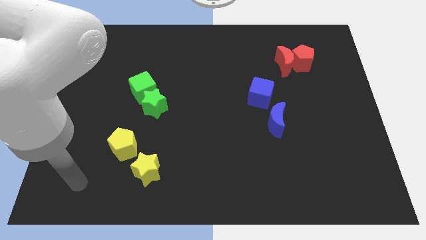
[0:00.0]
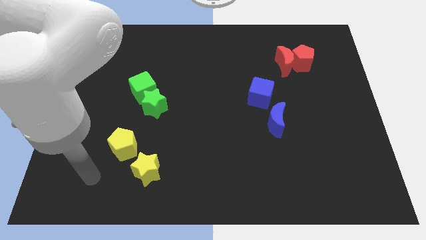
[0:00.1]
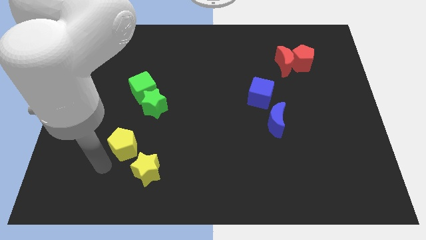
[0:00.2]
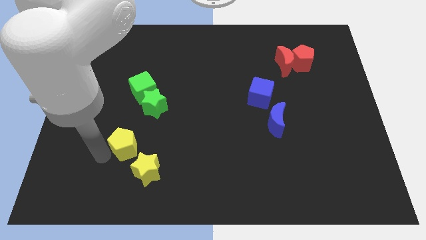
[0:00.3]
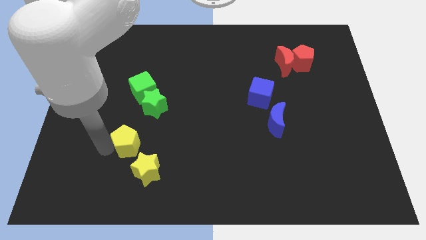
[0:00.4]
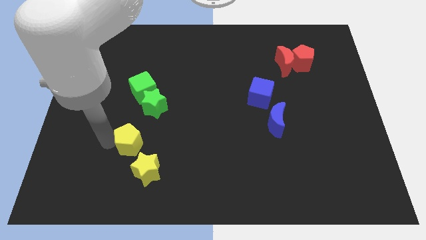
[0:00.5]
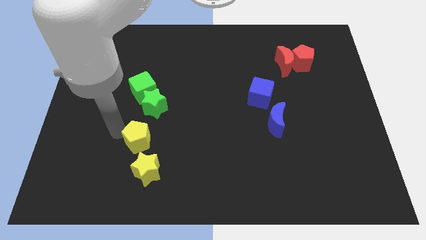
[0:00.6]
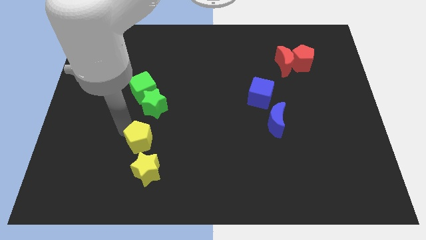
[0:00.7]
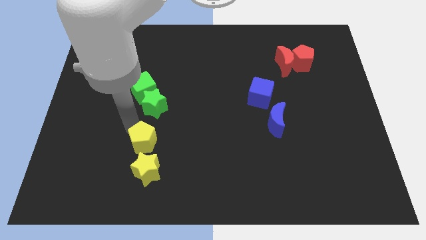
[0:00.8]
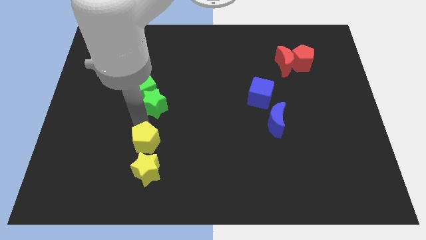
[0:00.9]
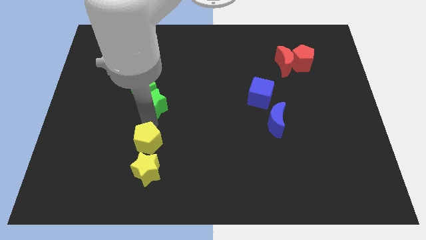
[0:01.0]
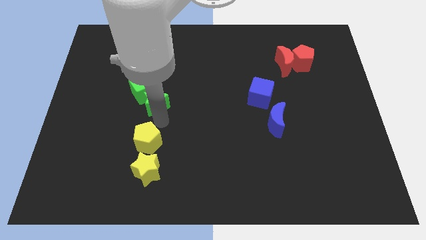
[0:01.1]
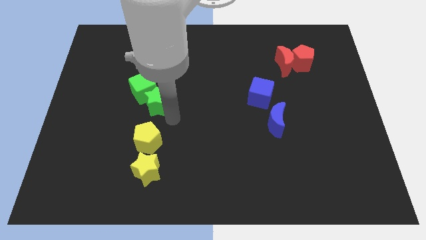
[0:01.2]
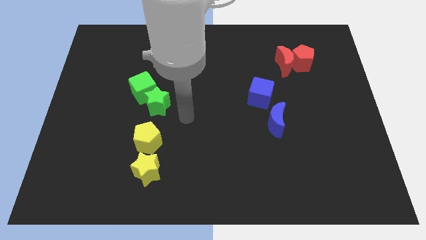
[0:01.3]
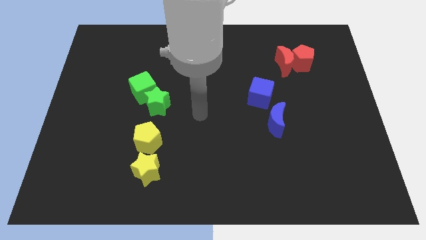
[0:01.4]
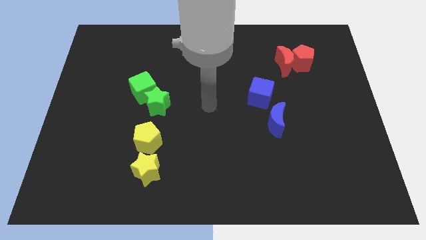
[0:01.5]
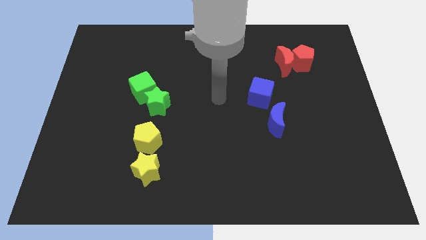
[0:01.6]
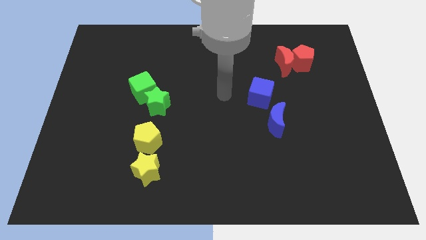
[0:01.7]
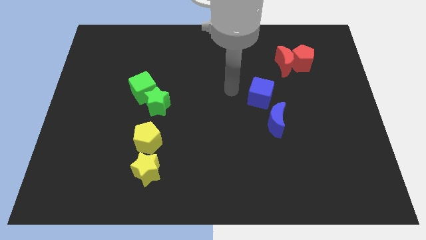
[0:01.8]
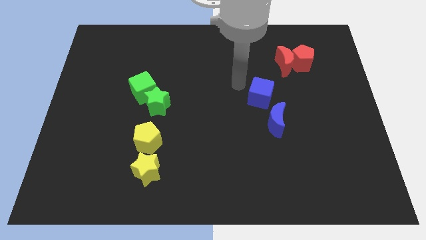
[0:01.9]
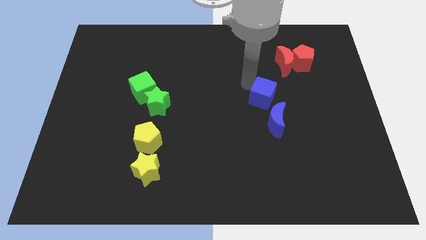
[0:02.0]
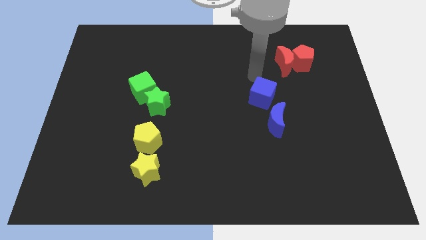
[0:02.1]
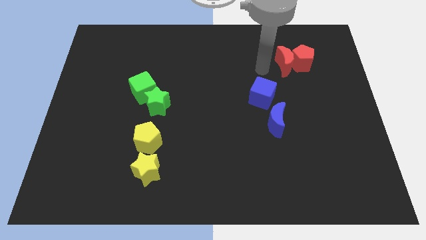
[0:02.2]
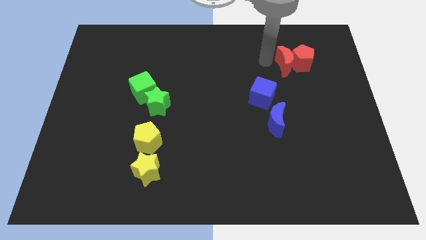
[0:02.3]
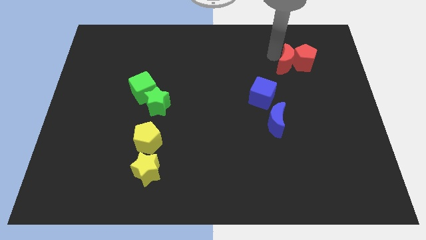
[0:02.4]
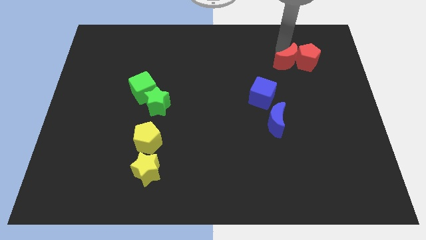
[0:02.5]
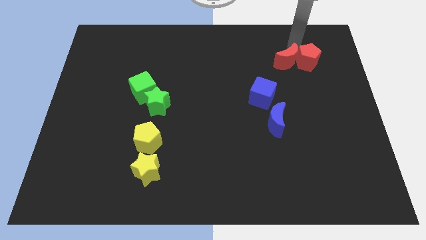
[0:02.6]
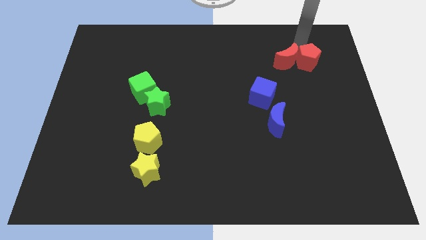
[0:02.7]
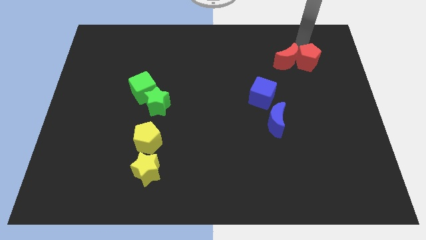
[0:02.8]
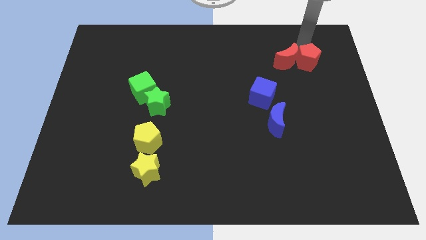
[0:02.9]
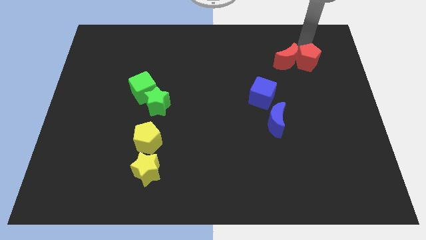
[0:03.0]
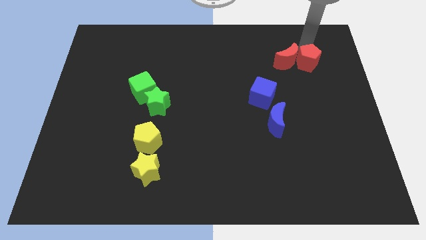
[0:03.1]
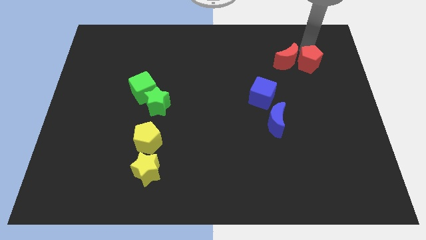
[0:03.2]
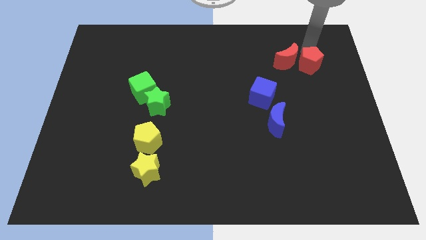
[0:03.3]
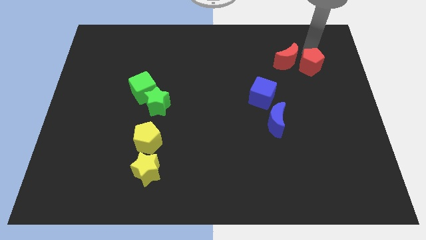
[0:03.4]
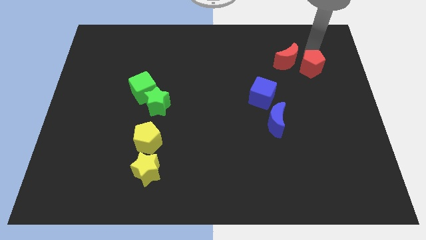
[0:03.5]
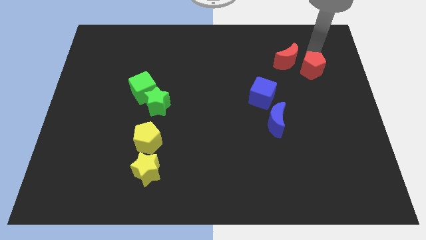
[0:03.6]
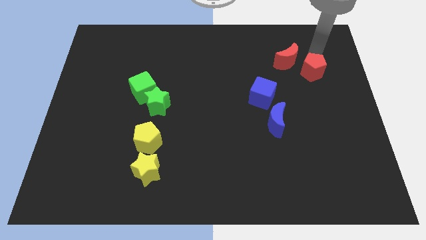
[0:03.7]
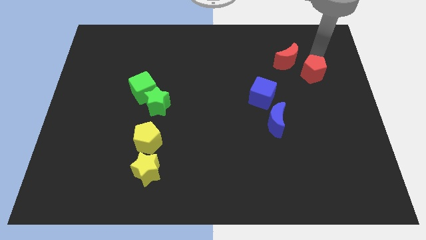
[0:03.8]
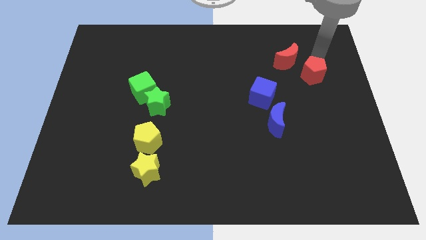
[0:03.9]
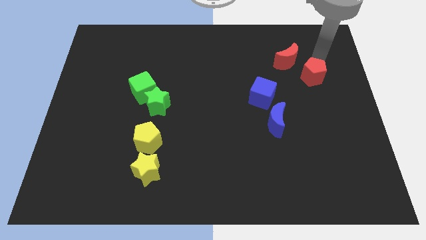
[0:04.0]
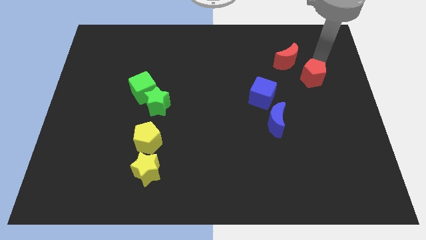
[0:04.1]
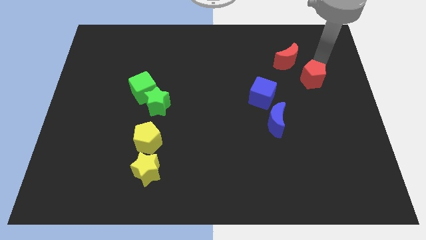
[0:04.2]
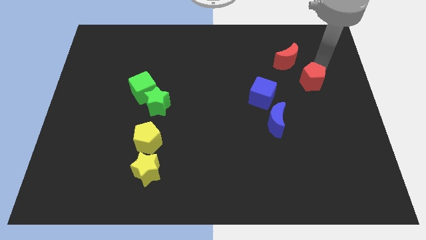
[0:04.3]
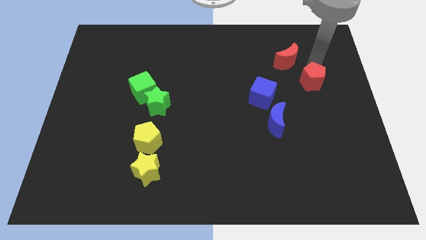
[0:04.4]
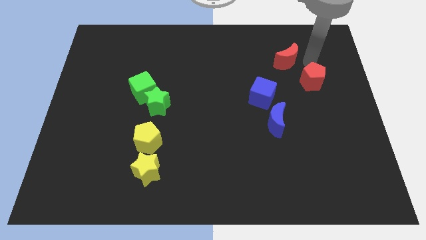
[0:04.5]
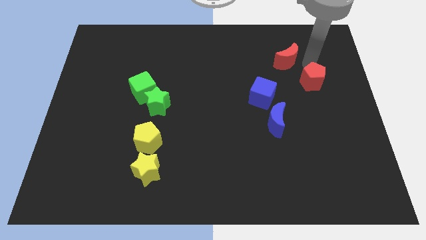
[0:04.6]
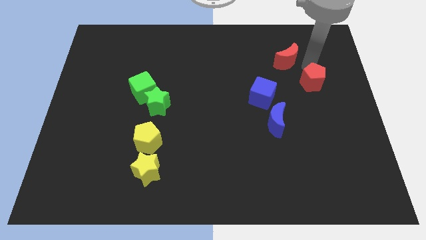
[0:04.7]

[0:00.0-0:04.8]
push the red pentagon down a little

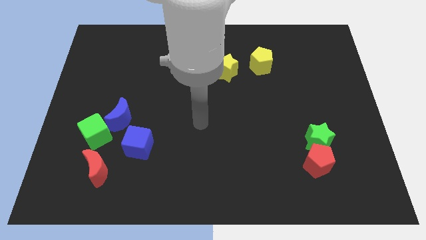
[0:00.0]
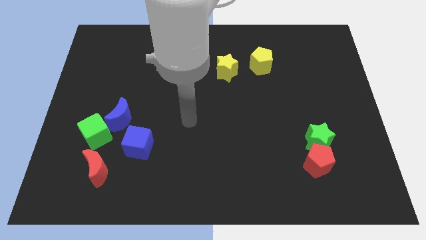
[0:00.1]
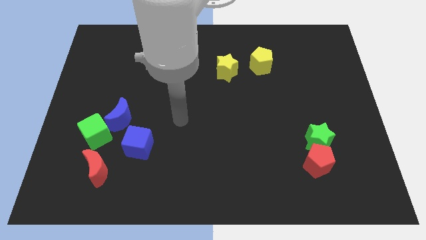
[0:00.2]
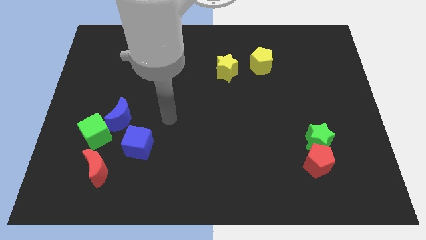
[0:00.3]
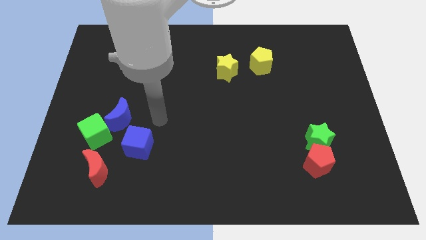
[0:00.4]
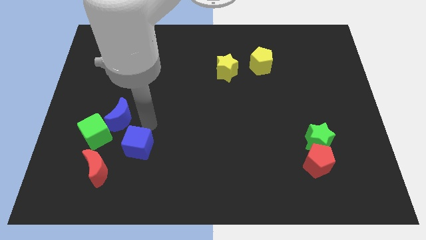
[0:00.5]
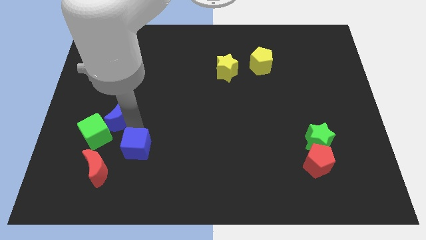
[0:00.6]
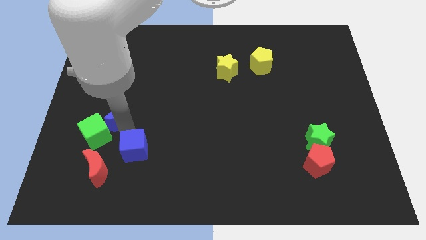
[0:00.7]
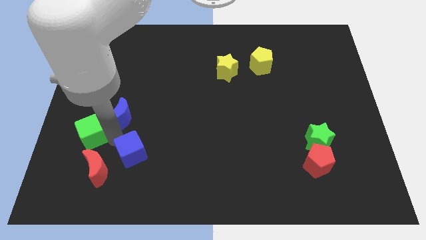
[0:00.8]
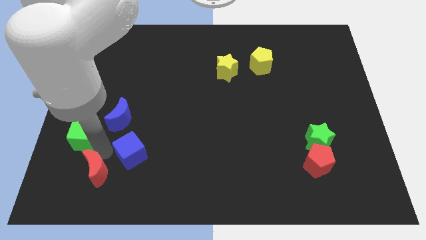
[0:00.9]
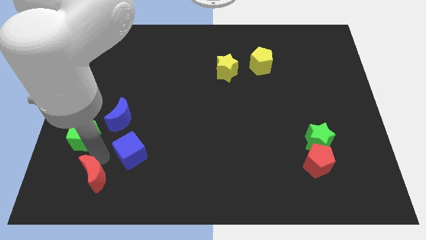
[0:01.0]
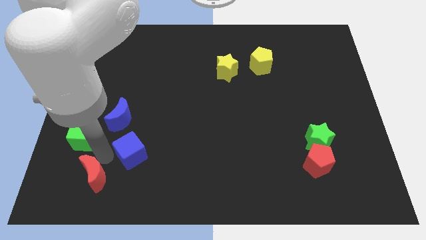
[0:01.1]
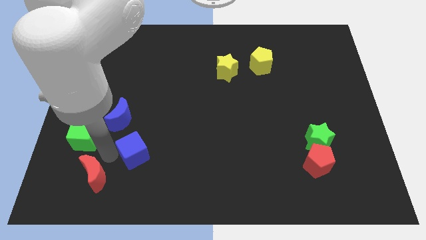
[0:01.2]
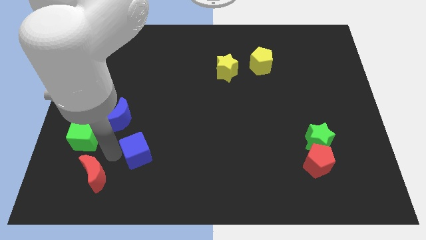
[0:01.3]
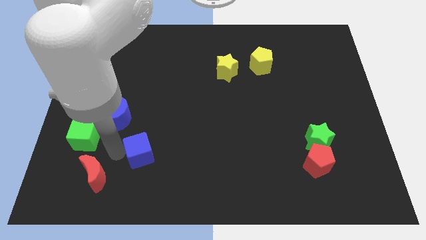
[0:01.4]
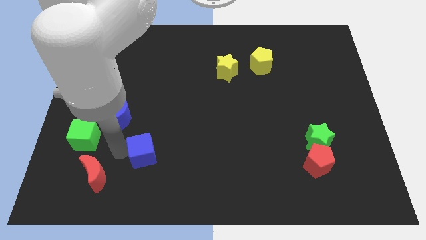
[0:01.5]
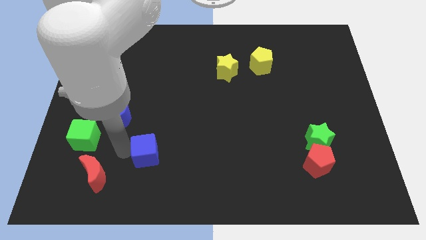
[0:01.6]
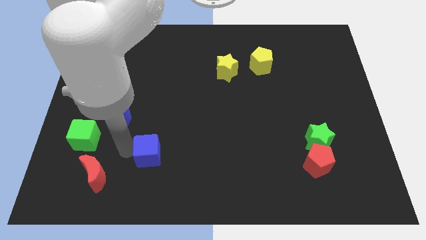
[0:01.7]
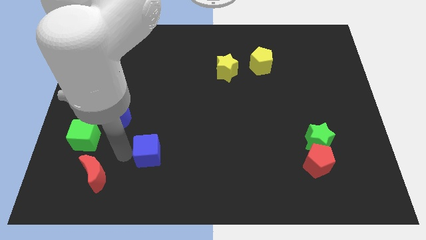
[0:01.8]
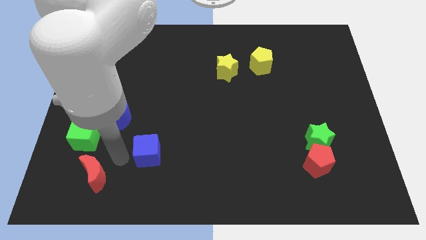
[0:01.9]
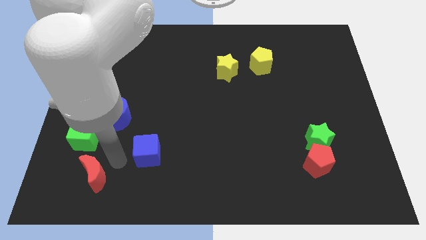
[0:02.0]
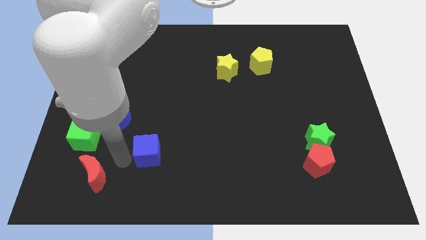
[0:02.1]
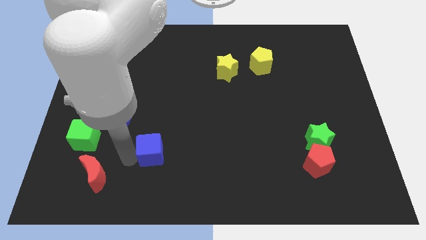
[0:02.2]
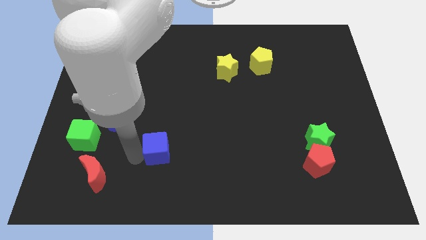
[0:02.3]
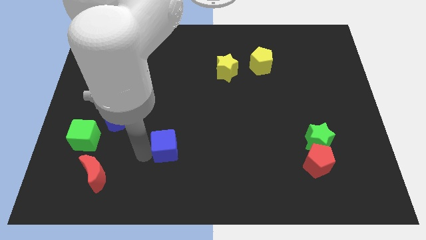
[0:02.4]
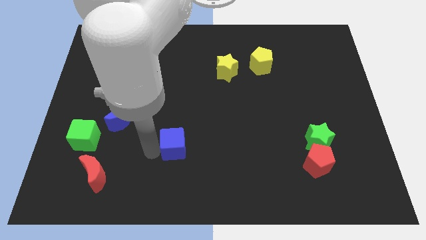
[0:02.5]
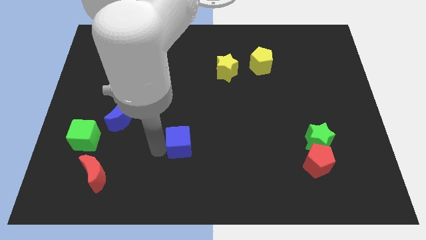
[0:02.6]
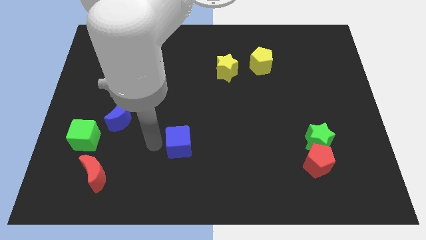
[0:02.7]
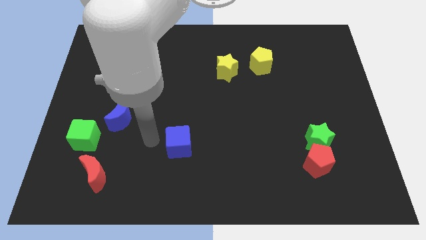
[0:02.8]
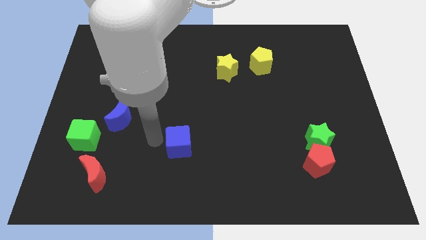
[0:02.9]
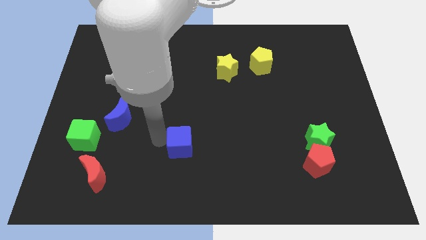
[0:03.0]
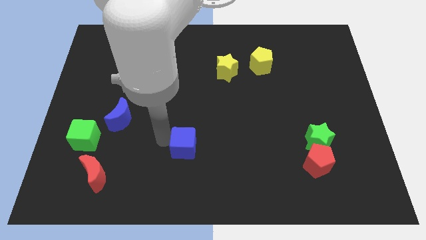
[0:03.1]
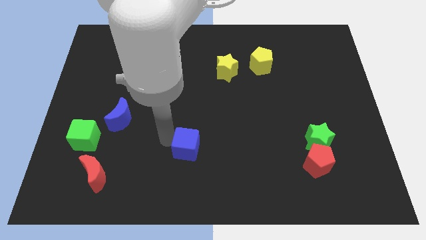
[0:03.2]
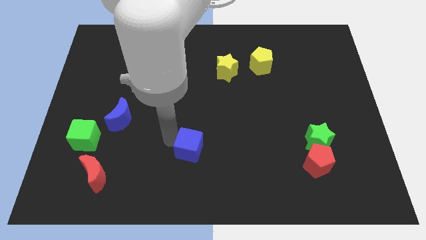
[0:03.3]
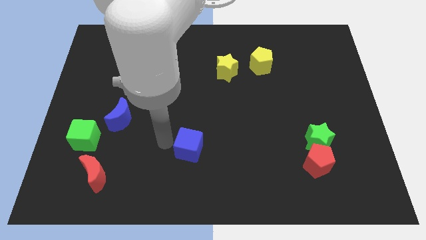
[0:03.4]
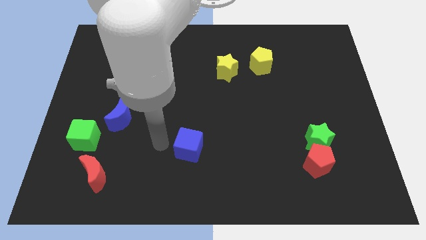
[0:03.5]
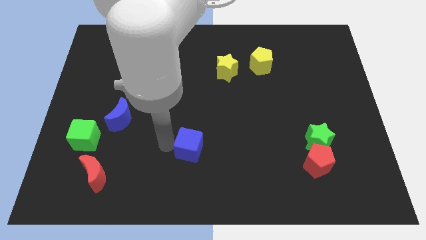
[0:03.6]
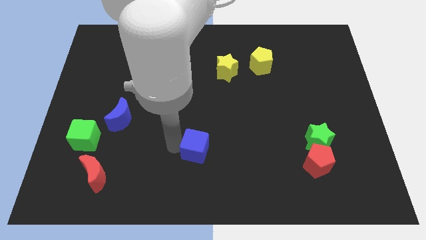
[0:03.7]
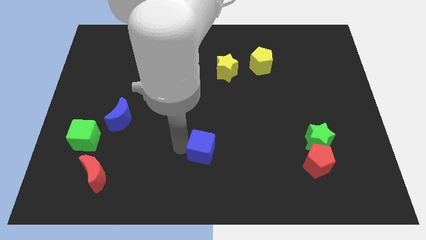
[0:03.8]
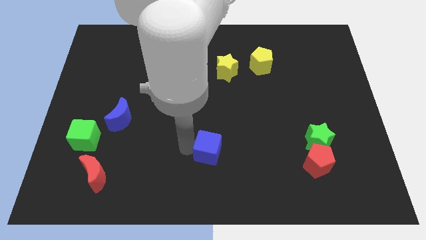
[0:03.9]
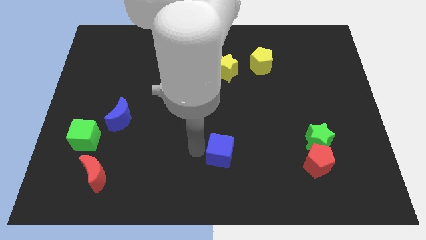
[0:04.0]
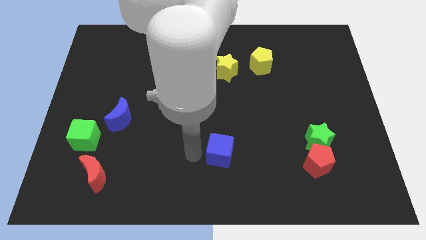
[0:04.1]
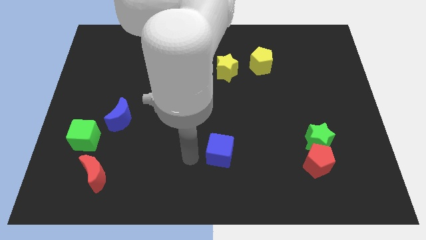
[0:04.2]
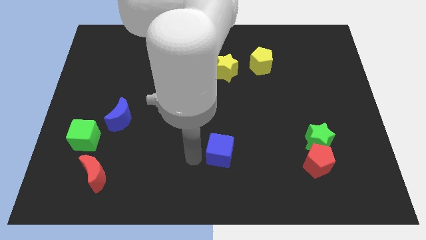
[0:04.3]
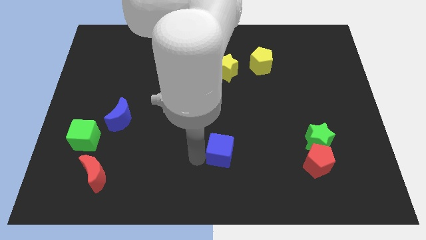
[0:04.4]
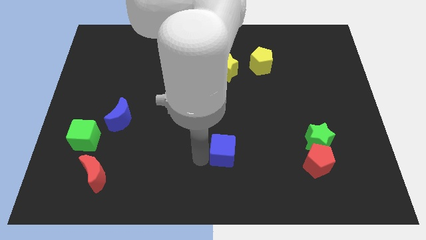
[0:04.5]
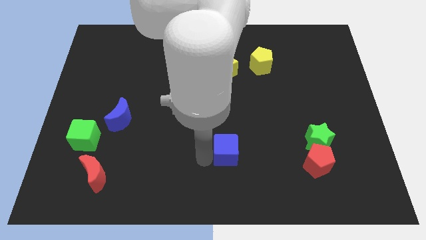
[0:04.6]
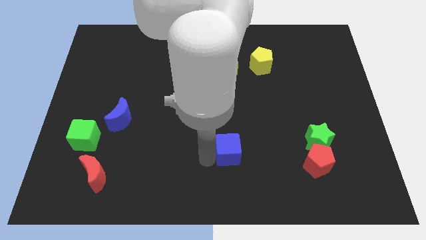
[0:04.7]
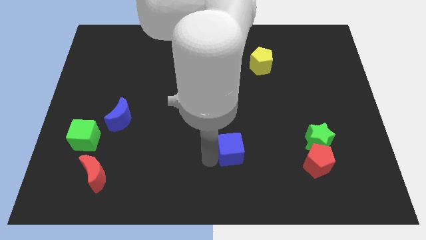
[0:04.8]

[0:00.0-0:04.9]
slide the blue cube to the right
